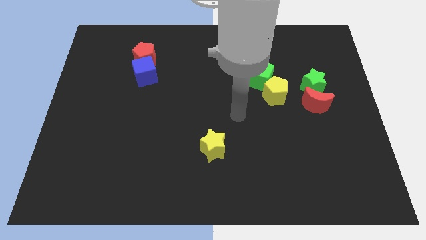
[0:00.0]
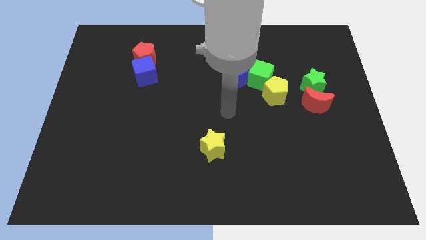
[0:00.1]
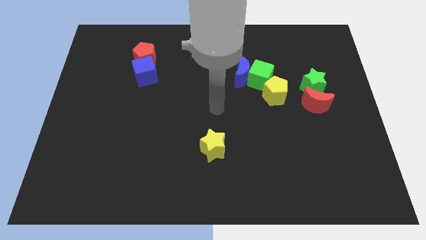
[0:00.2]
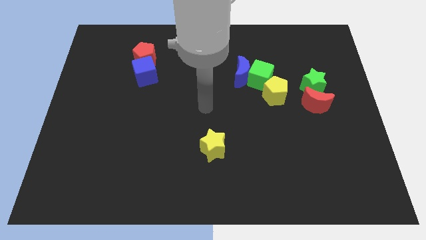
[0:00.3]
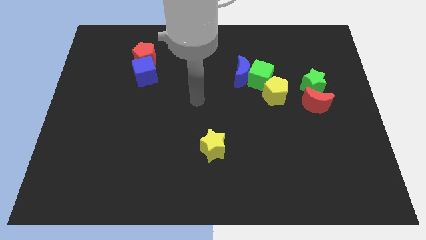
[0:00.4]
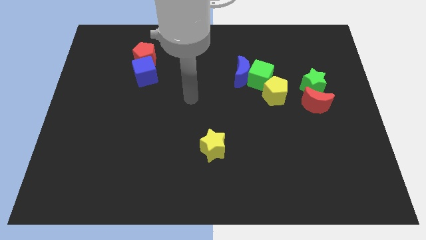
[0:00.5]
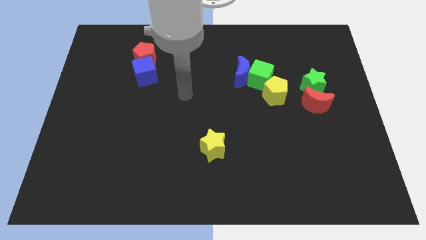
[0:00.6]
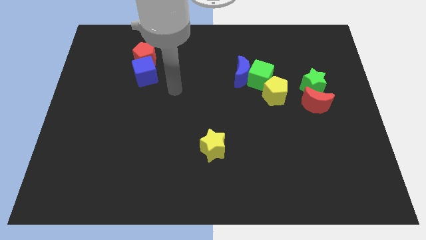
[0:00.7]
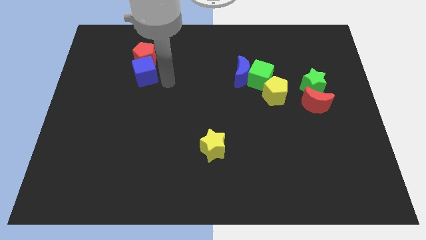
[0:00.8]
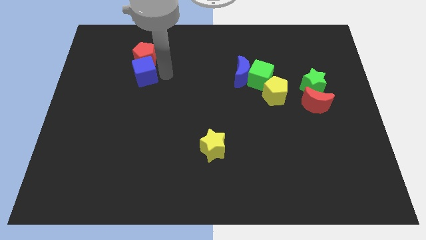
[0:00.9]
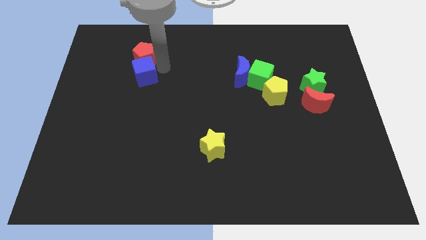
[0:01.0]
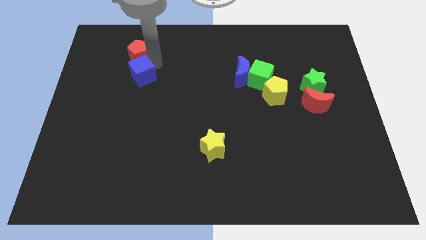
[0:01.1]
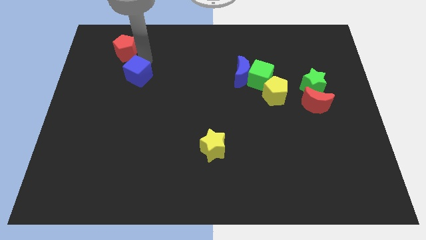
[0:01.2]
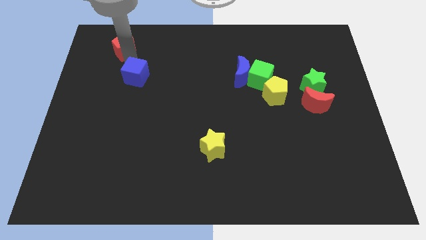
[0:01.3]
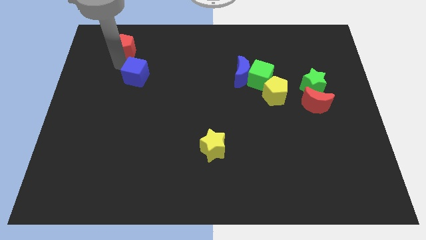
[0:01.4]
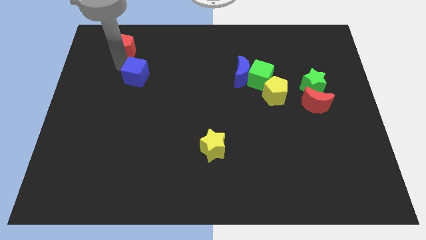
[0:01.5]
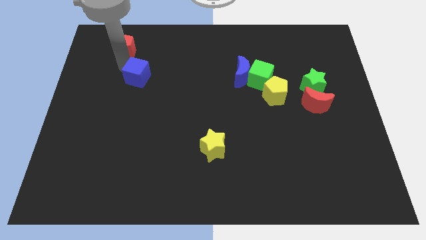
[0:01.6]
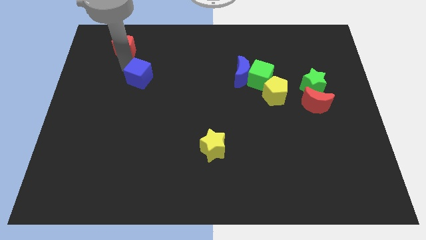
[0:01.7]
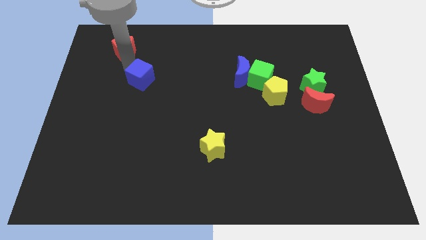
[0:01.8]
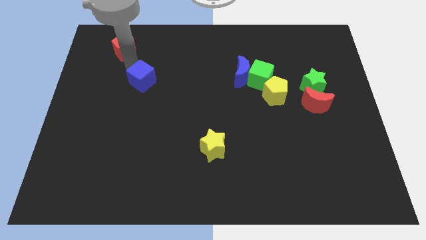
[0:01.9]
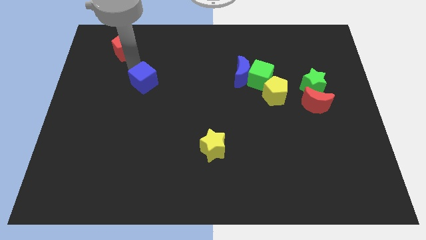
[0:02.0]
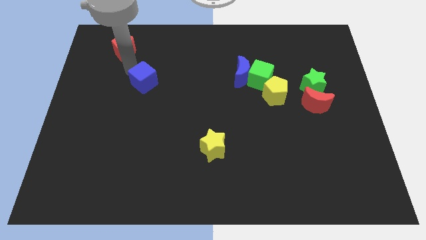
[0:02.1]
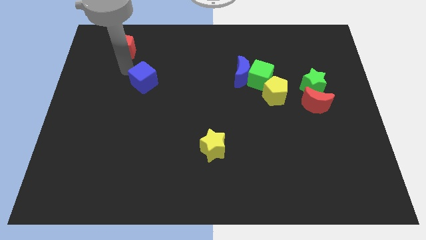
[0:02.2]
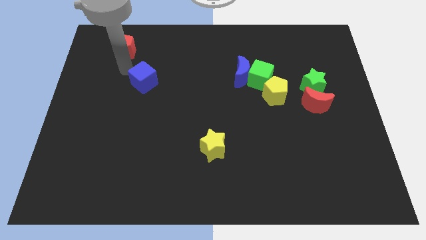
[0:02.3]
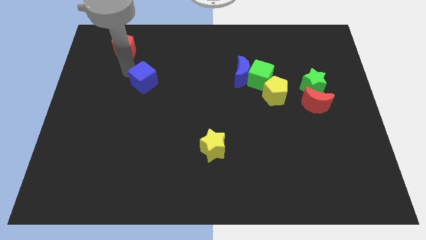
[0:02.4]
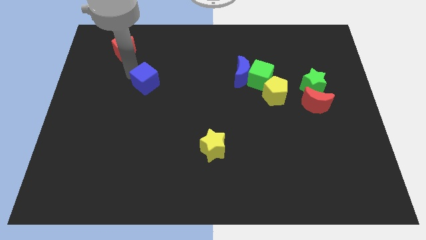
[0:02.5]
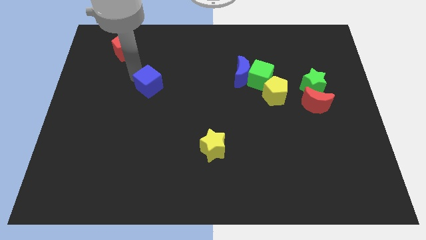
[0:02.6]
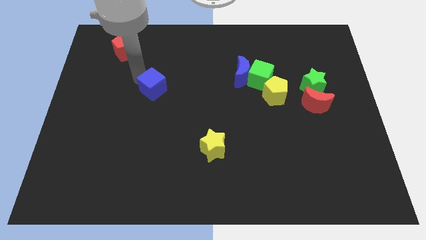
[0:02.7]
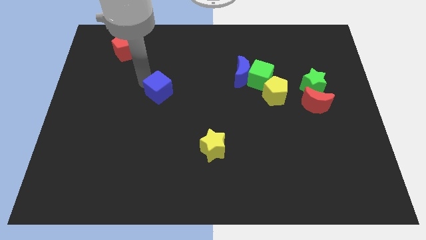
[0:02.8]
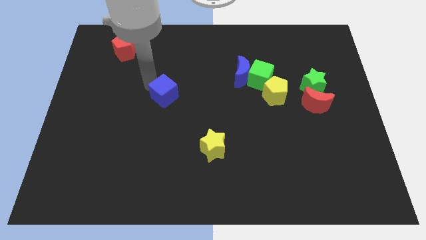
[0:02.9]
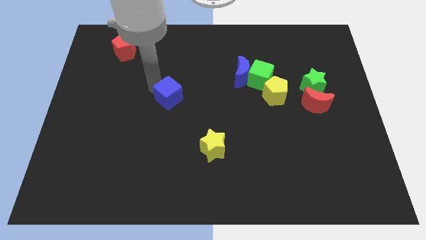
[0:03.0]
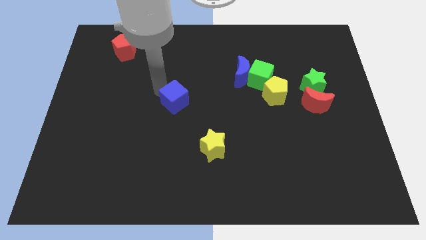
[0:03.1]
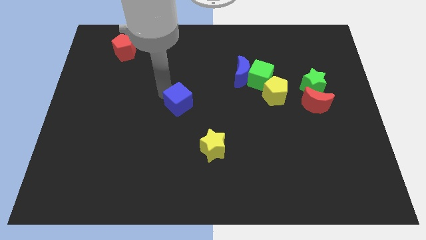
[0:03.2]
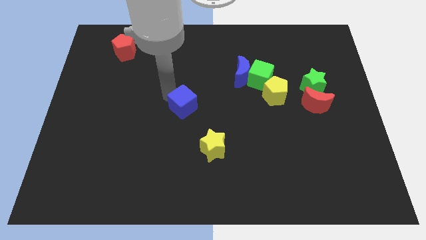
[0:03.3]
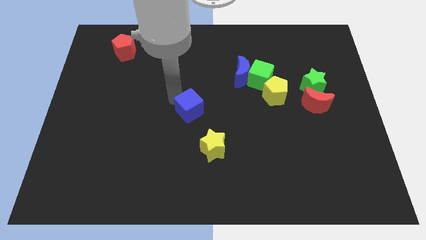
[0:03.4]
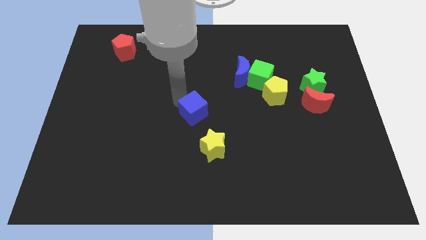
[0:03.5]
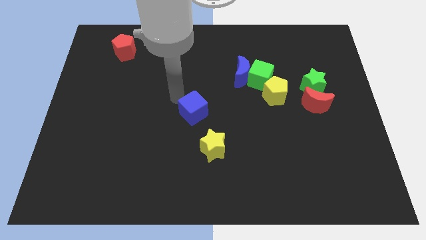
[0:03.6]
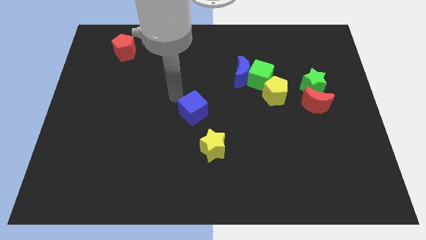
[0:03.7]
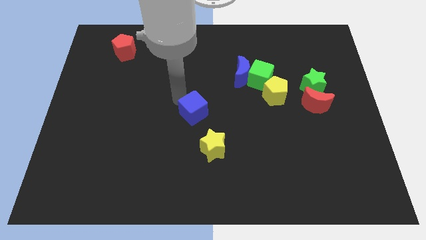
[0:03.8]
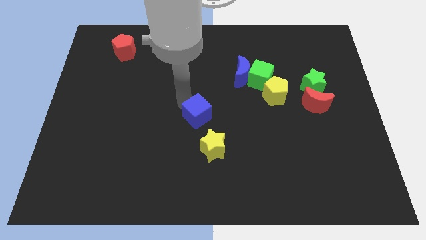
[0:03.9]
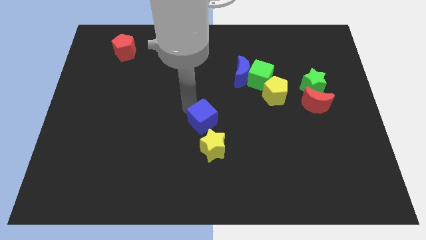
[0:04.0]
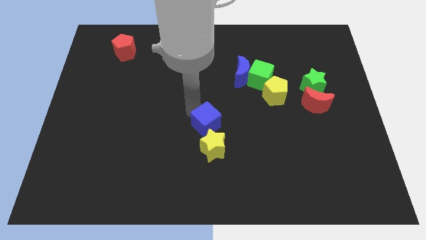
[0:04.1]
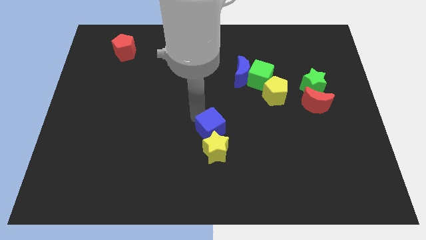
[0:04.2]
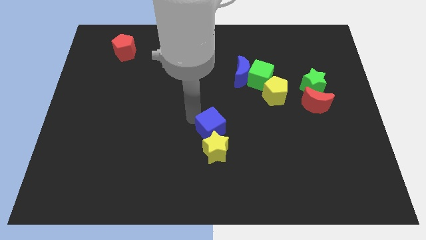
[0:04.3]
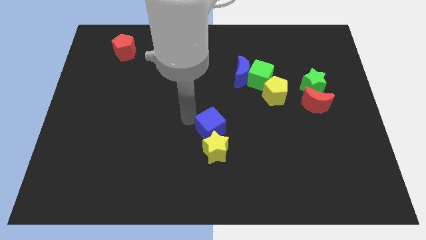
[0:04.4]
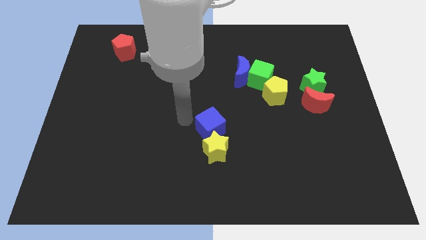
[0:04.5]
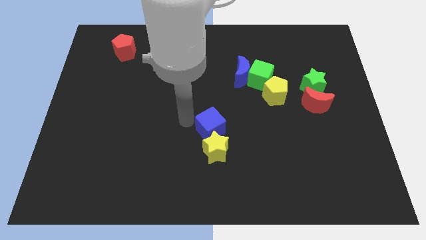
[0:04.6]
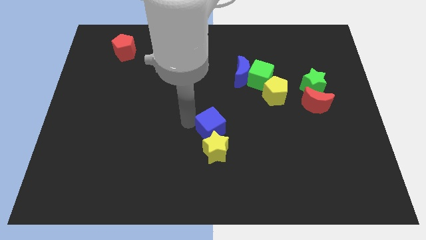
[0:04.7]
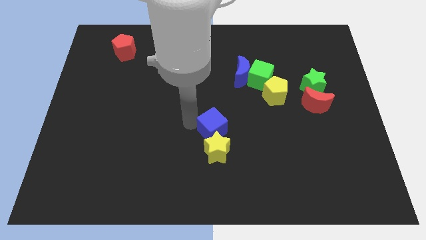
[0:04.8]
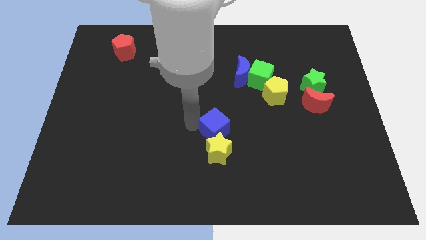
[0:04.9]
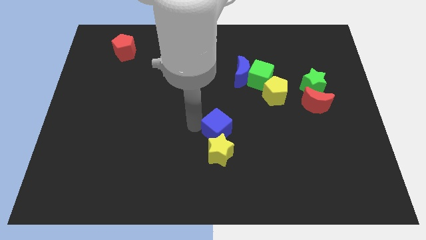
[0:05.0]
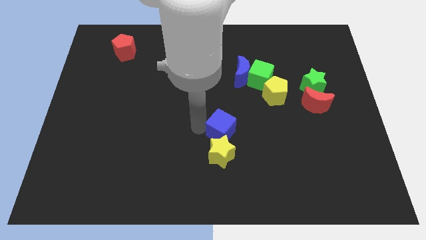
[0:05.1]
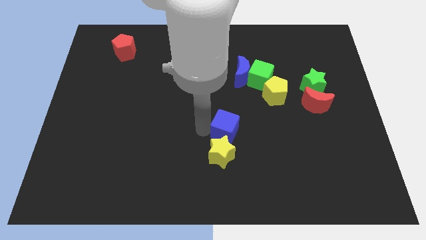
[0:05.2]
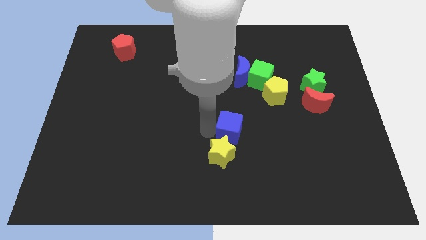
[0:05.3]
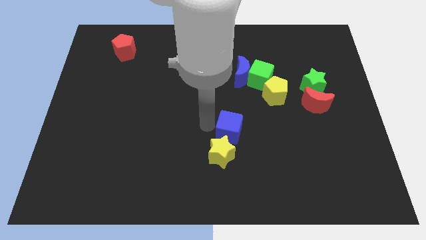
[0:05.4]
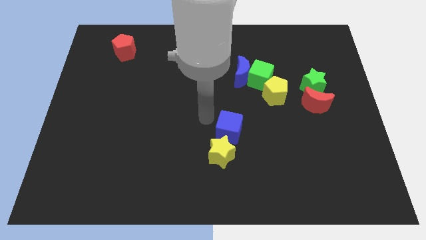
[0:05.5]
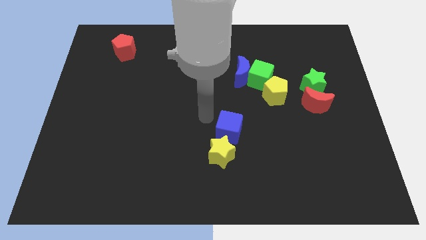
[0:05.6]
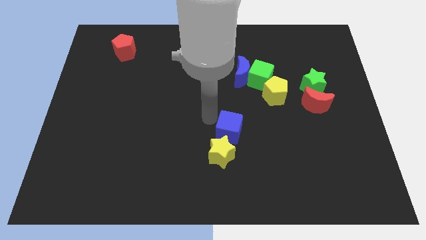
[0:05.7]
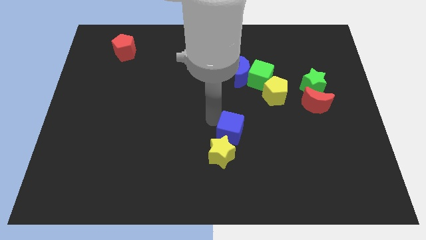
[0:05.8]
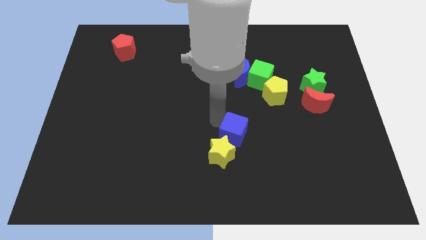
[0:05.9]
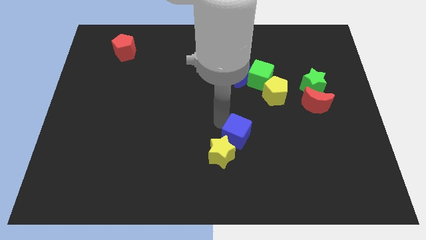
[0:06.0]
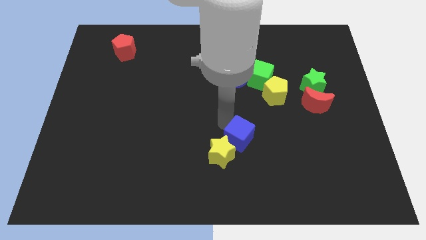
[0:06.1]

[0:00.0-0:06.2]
push the blue cube to the right of the yellow star

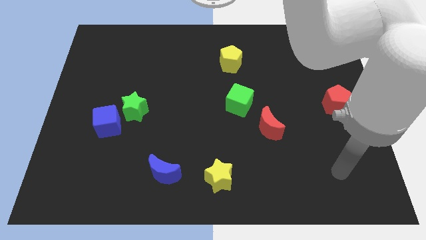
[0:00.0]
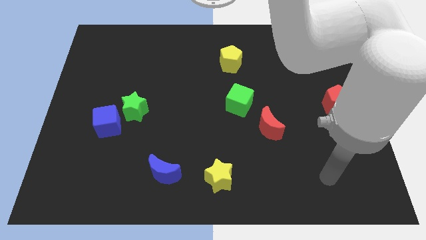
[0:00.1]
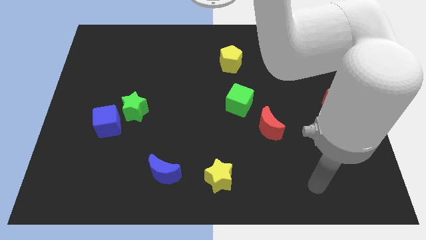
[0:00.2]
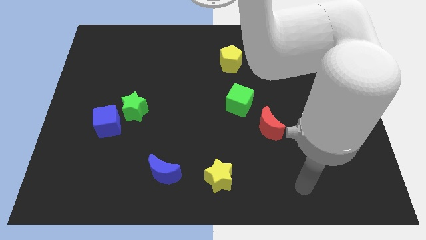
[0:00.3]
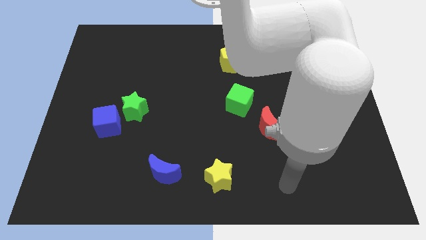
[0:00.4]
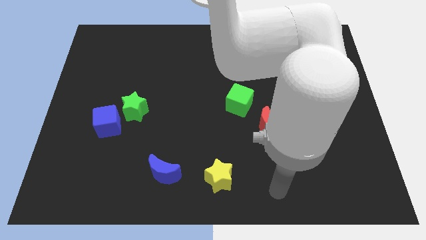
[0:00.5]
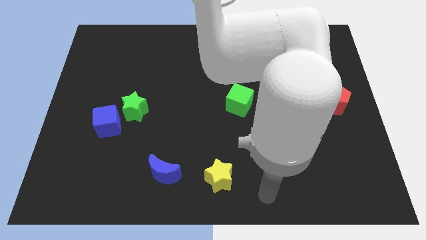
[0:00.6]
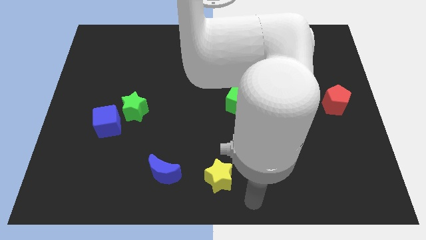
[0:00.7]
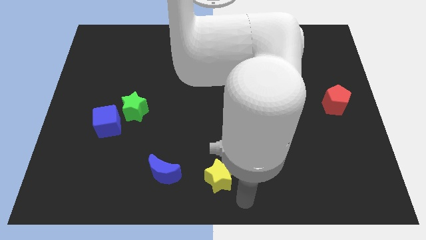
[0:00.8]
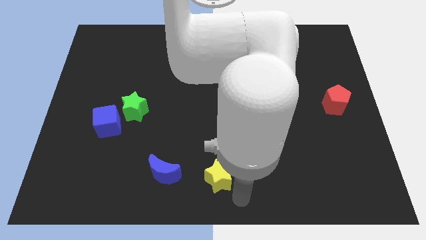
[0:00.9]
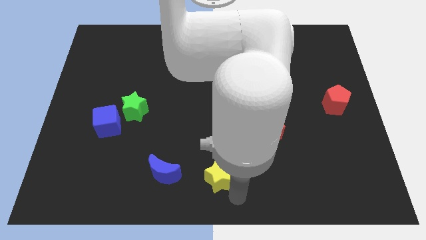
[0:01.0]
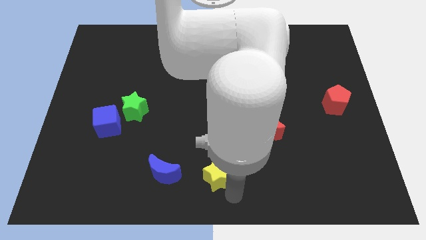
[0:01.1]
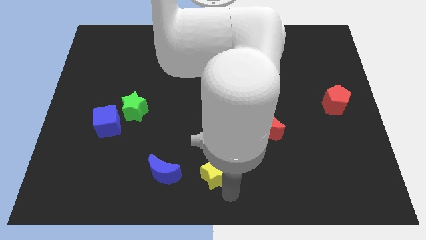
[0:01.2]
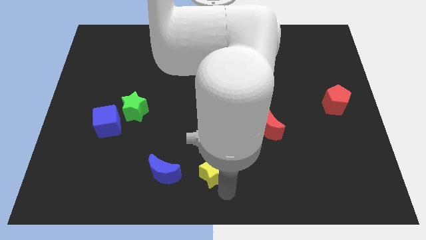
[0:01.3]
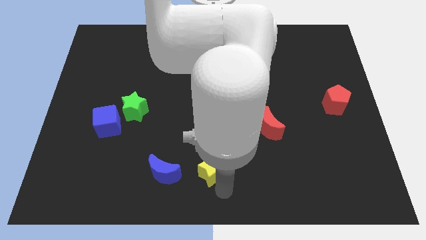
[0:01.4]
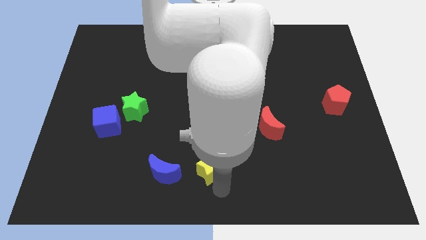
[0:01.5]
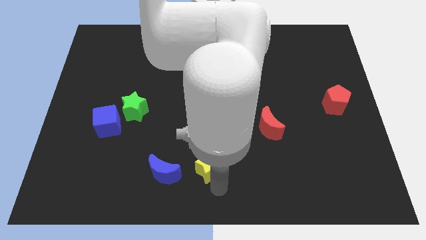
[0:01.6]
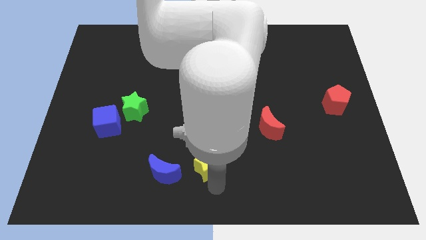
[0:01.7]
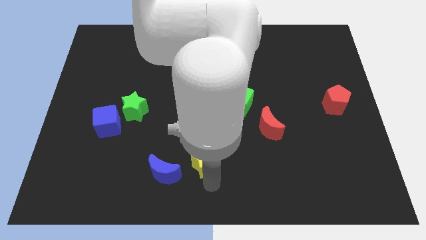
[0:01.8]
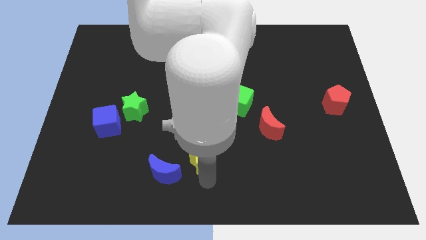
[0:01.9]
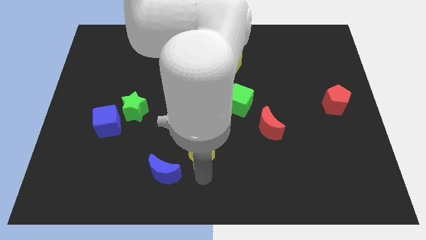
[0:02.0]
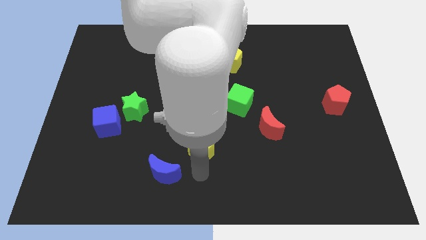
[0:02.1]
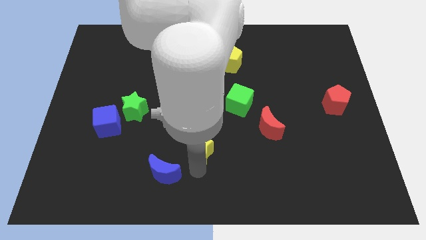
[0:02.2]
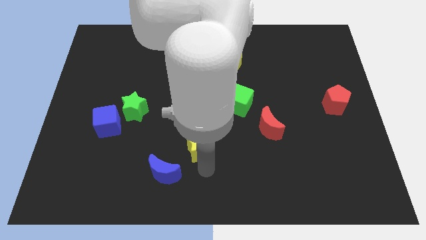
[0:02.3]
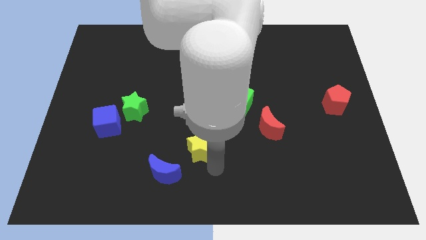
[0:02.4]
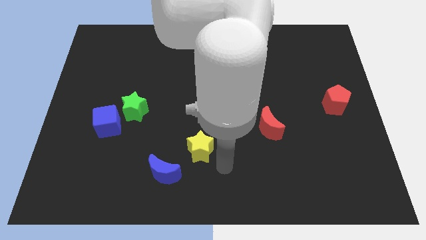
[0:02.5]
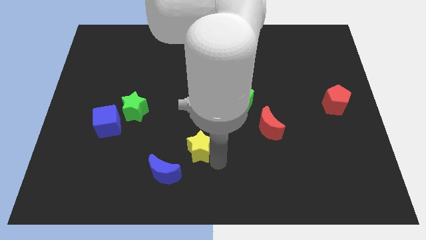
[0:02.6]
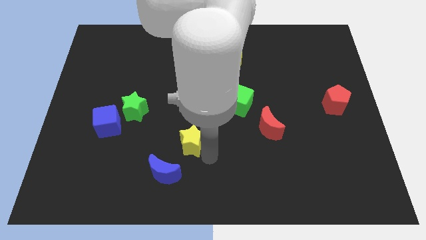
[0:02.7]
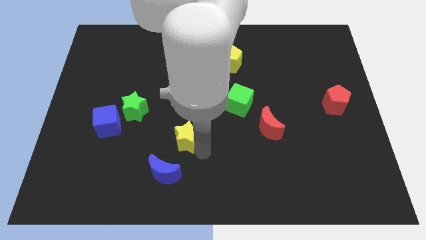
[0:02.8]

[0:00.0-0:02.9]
slide the yellow star above the blue moon
